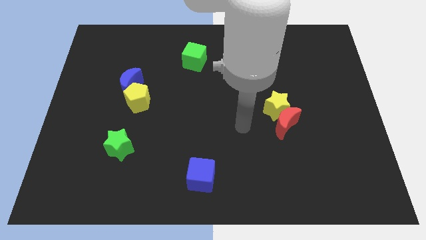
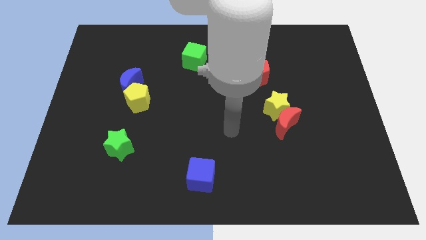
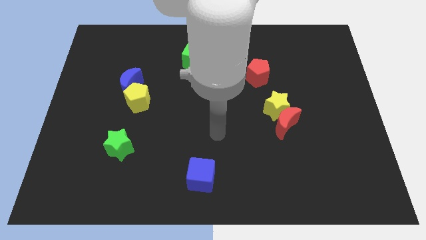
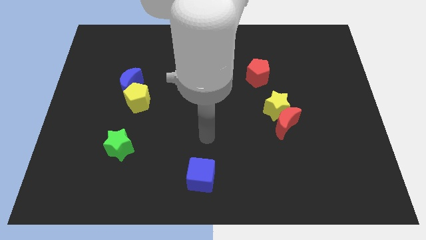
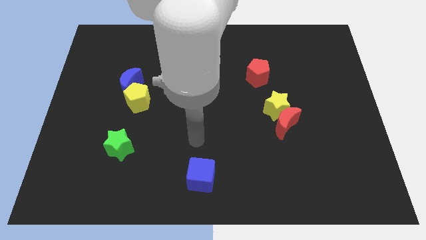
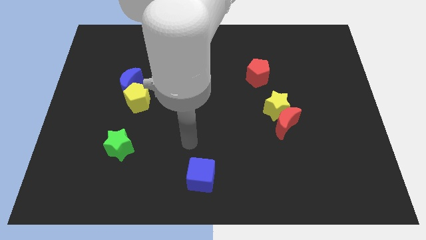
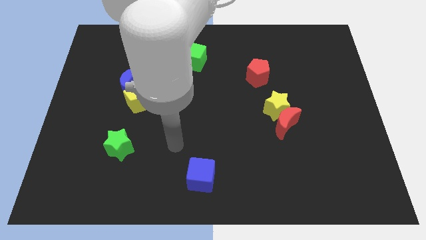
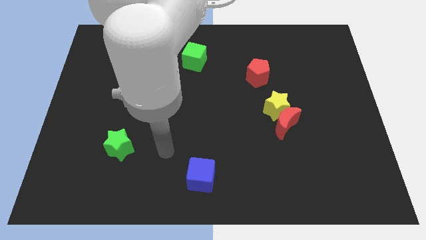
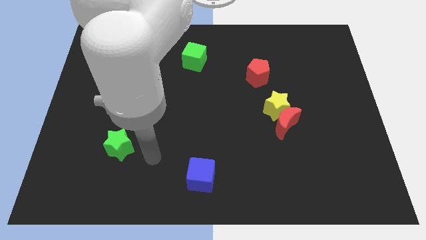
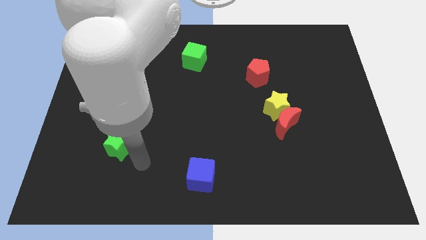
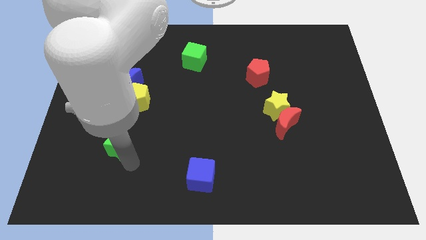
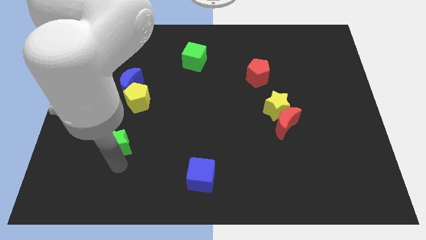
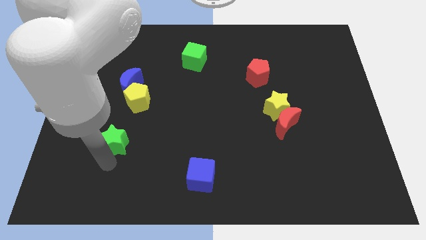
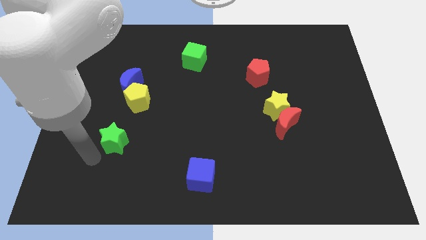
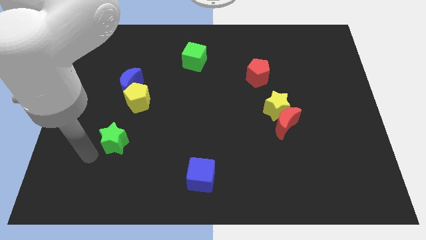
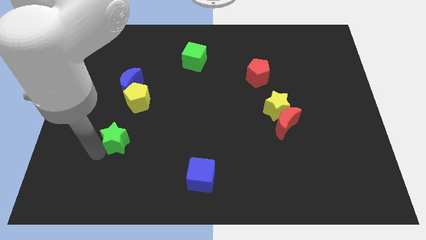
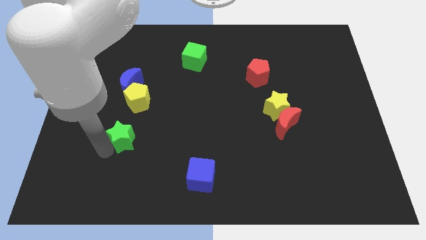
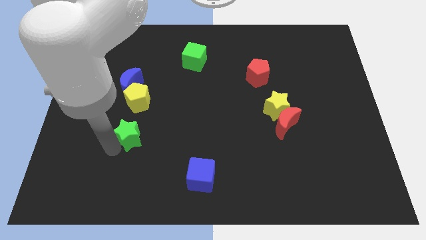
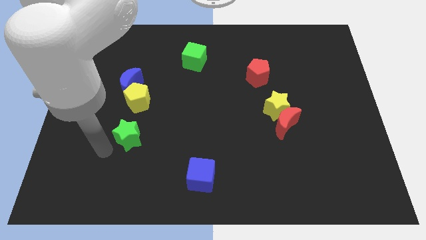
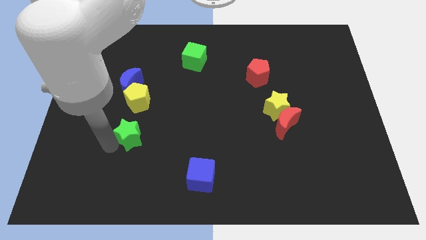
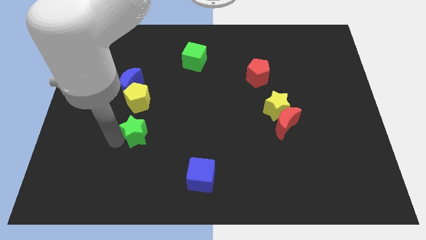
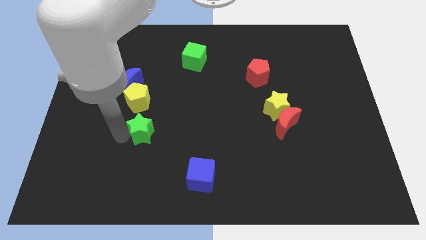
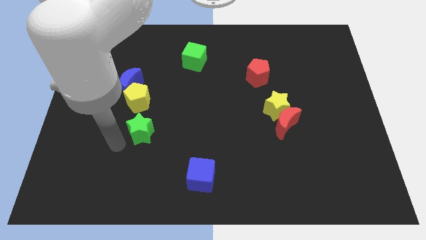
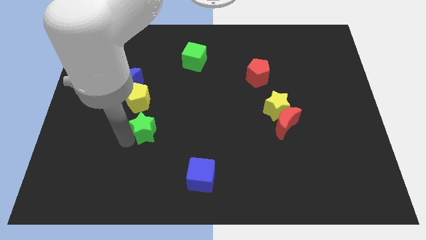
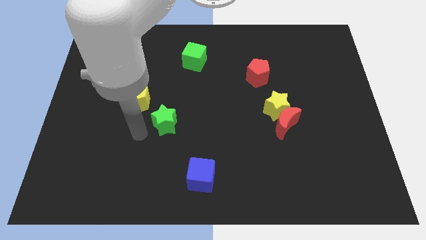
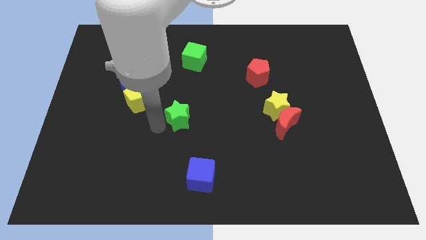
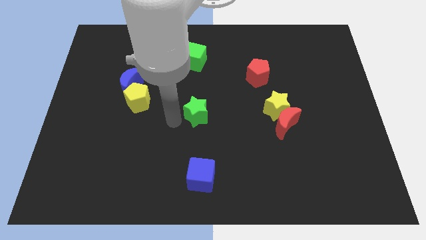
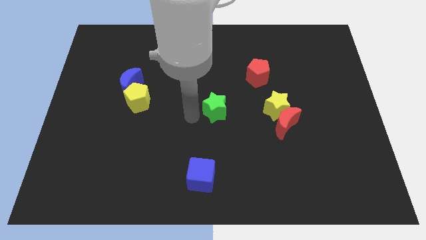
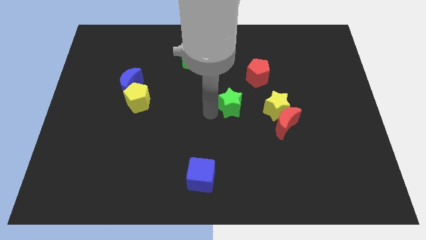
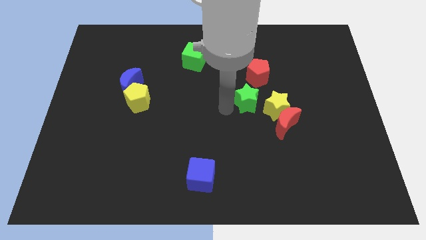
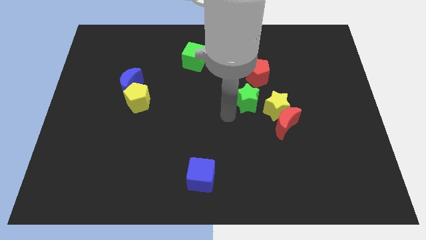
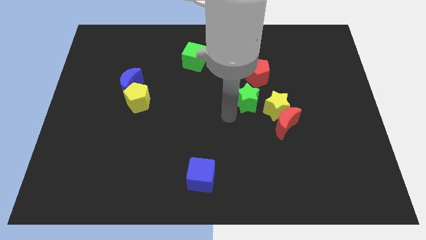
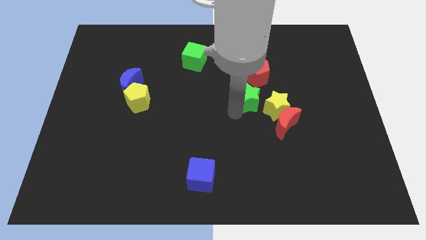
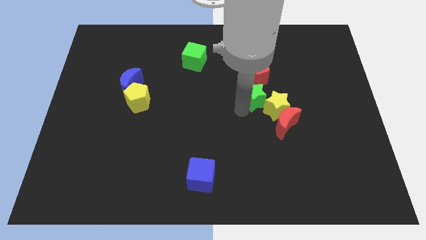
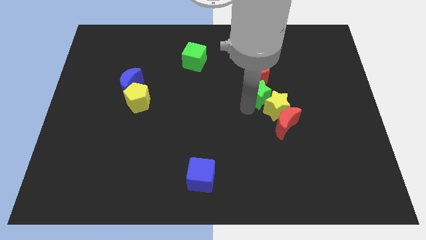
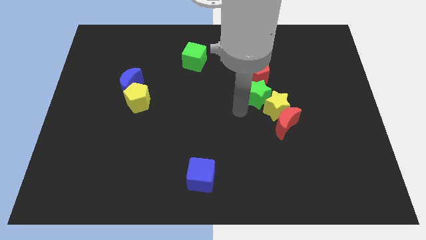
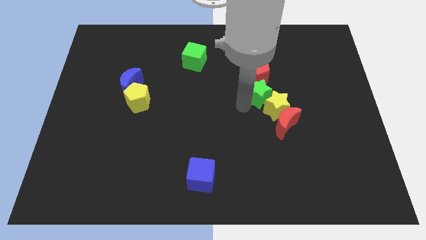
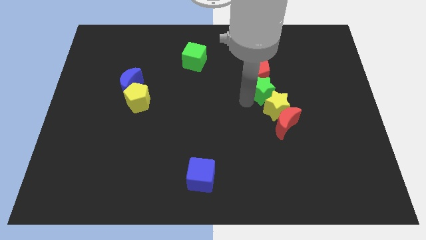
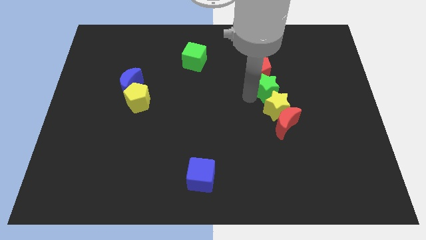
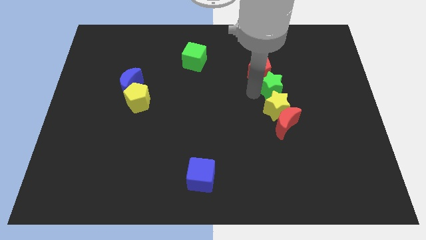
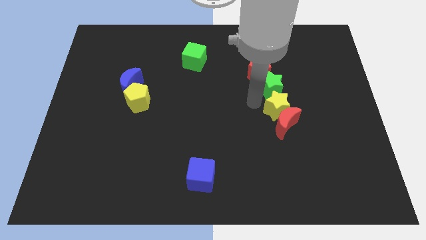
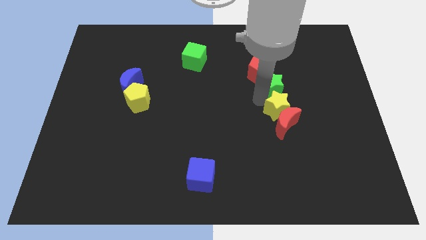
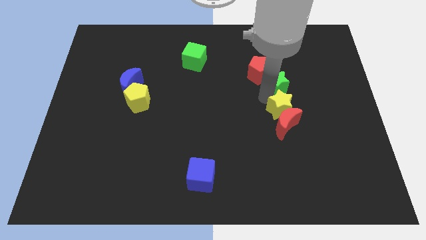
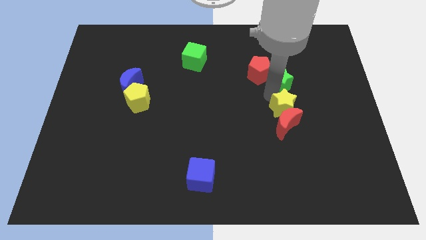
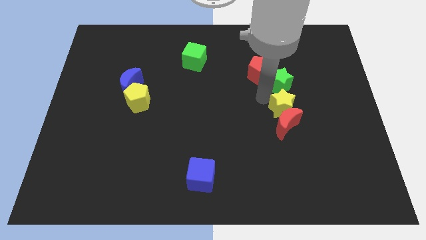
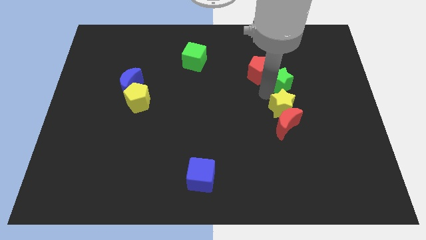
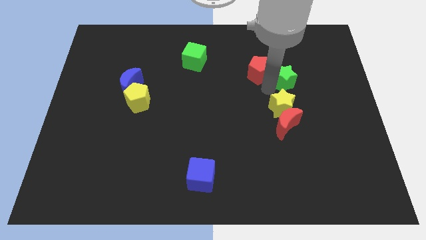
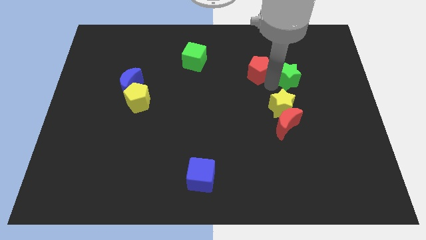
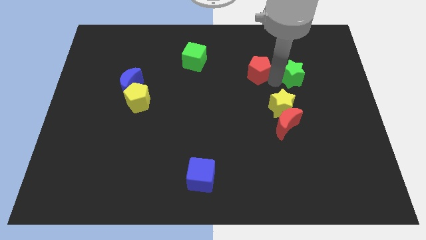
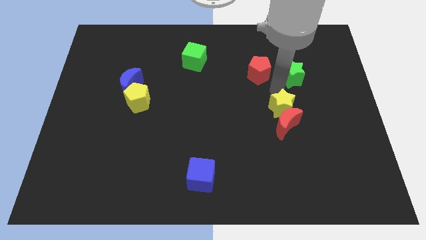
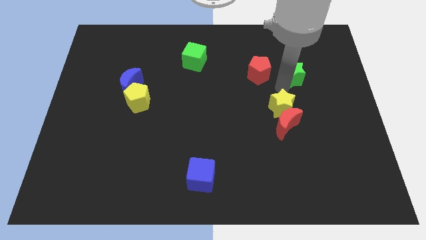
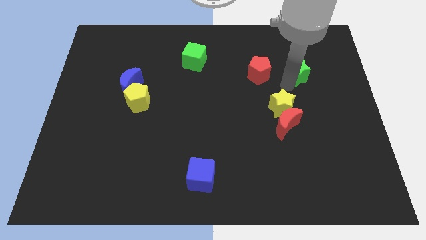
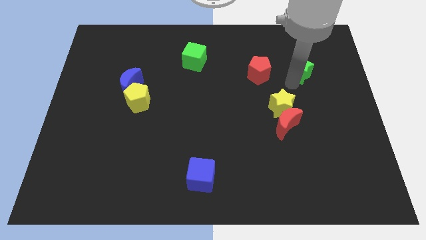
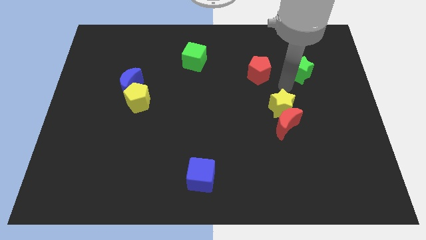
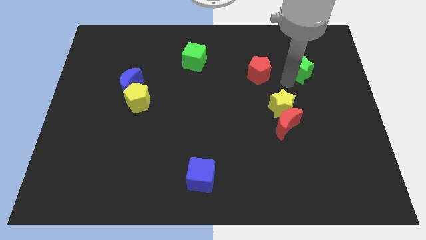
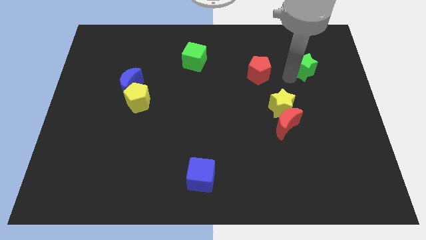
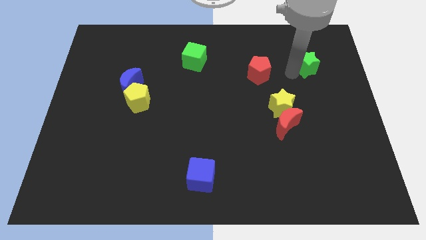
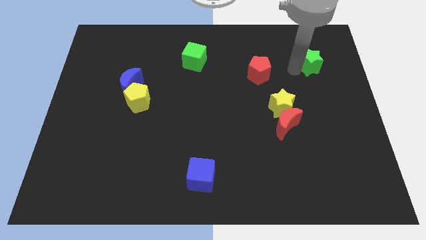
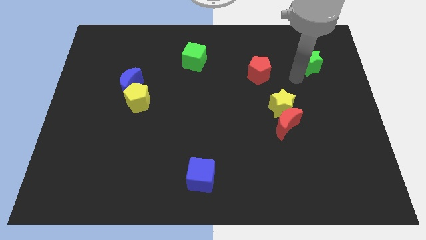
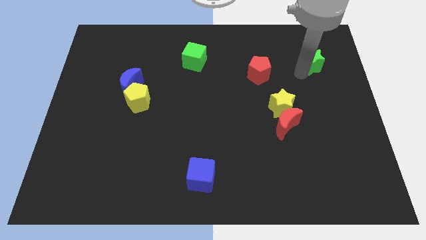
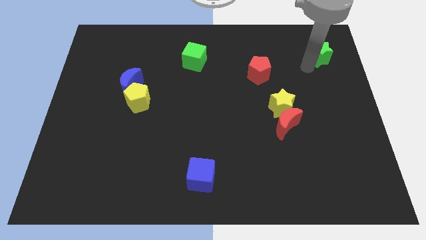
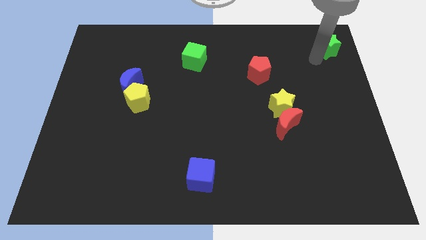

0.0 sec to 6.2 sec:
push the green star to the top right

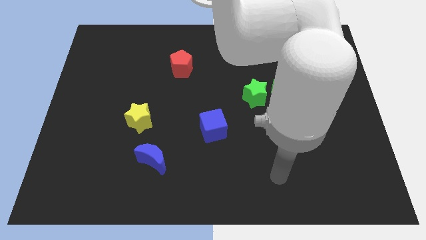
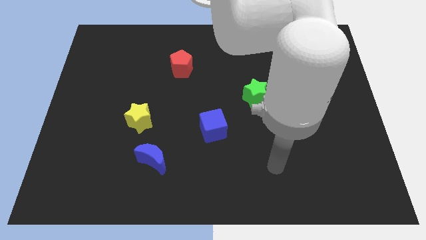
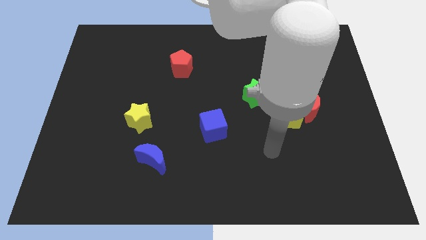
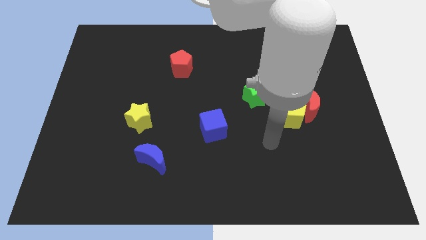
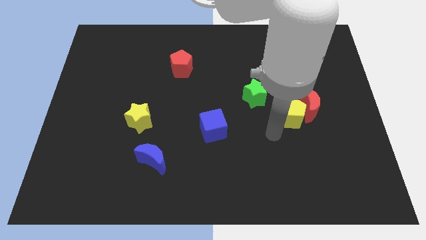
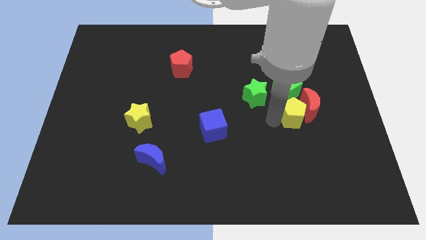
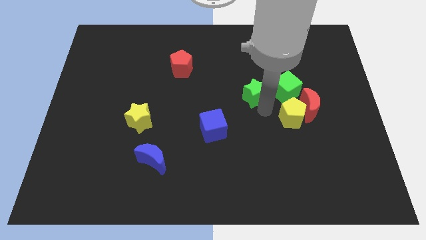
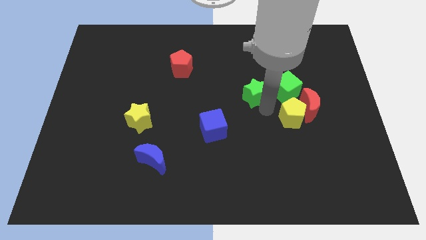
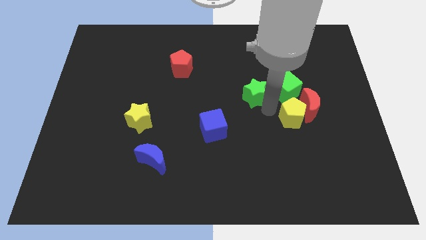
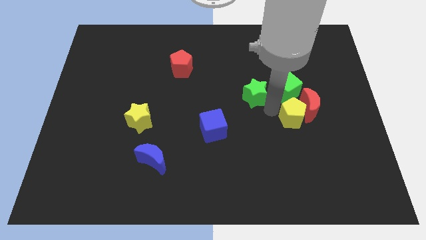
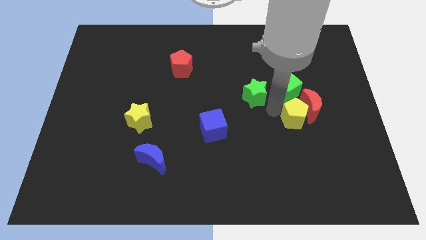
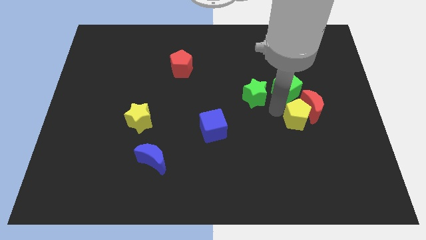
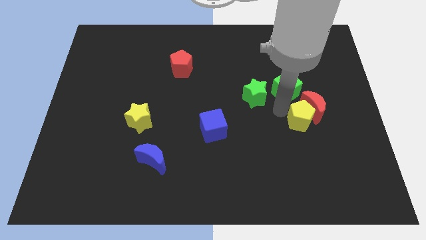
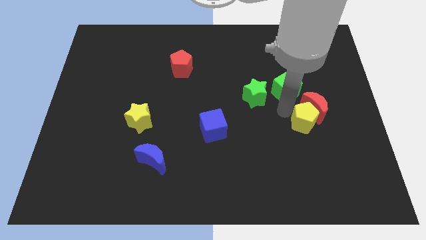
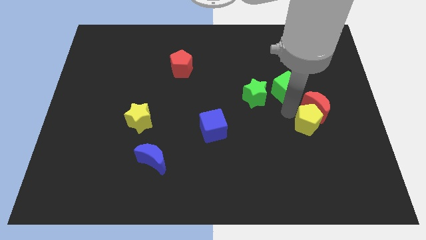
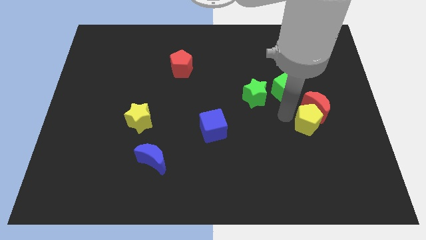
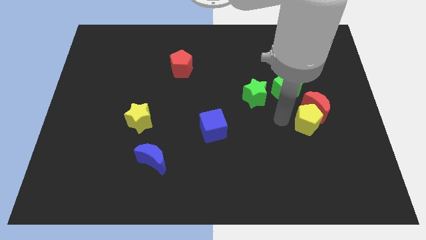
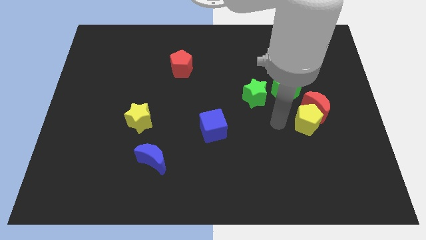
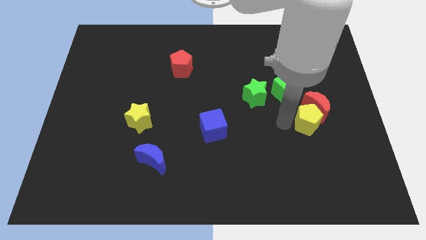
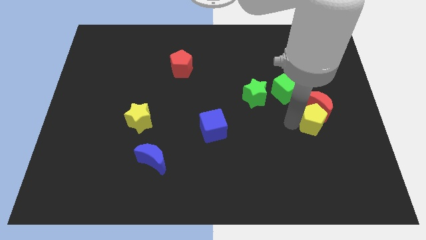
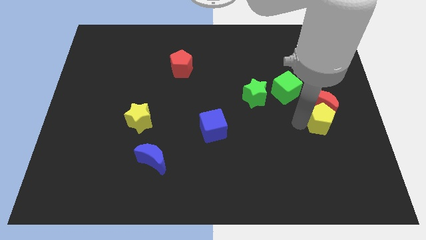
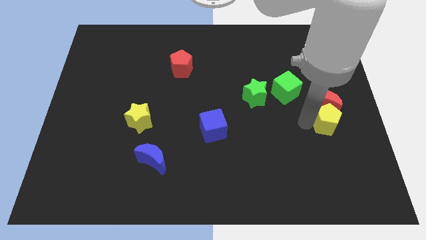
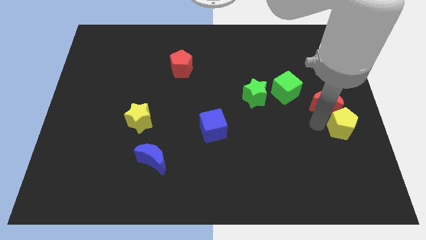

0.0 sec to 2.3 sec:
put the yellow pentagon to the center right
